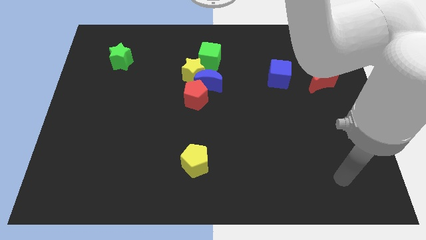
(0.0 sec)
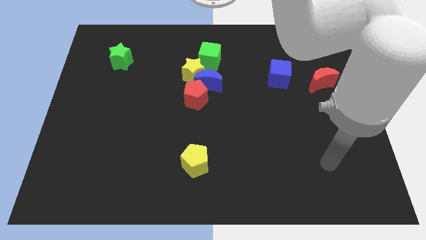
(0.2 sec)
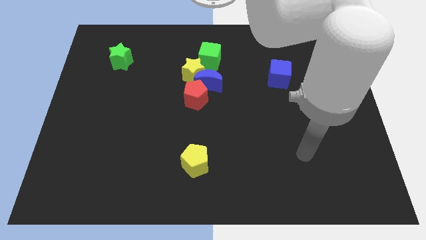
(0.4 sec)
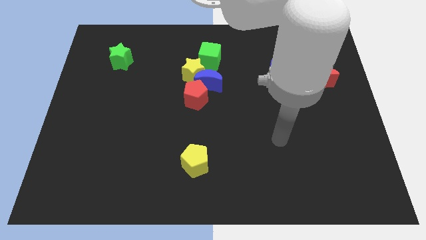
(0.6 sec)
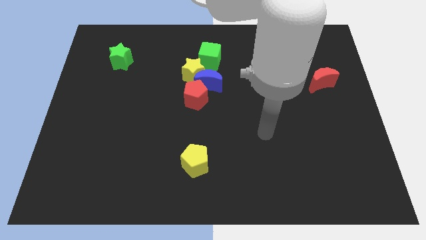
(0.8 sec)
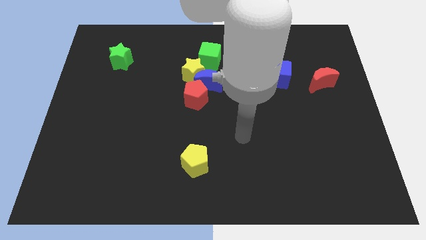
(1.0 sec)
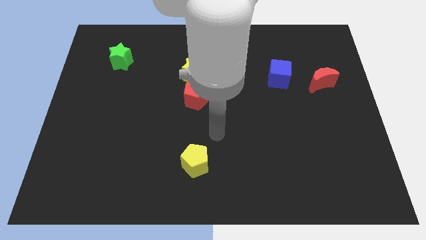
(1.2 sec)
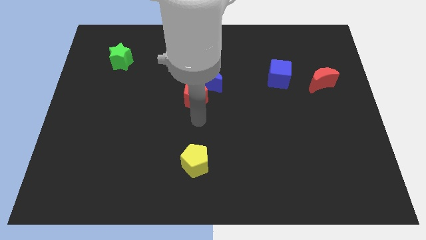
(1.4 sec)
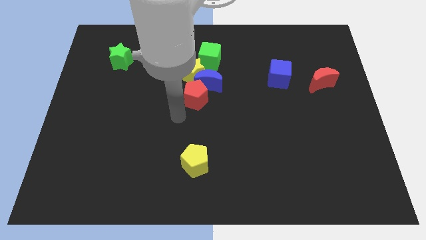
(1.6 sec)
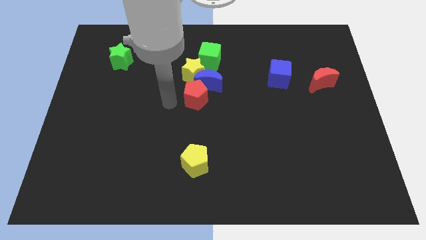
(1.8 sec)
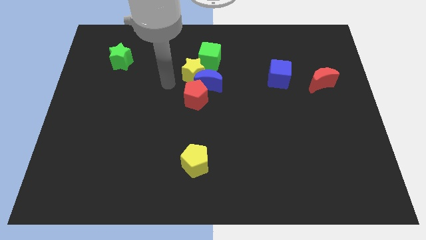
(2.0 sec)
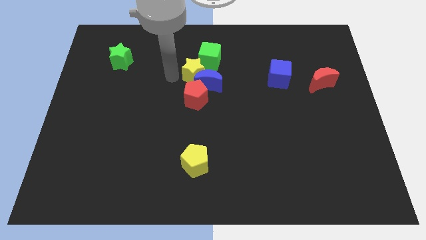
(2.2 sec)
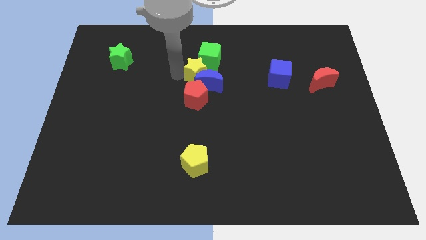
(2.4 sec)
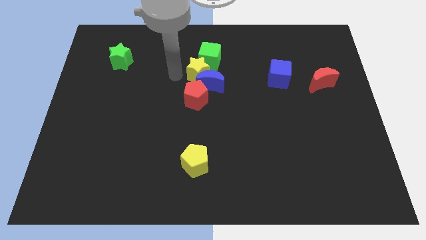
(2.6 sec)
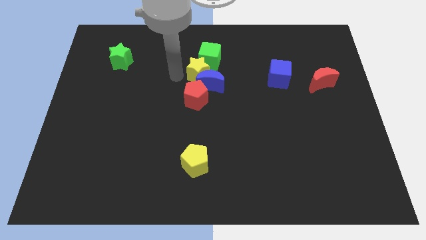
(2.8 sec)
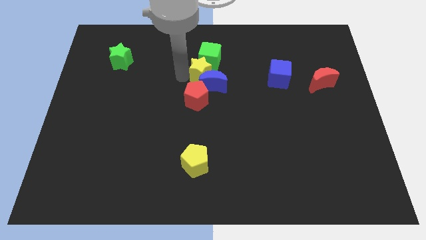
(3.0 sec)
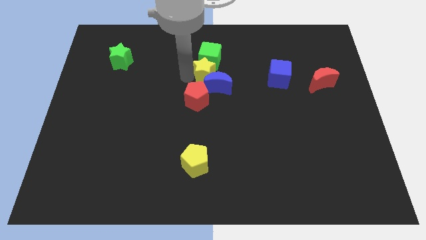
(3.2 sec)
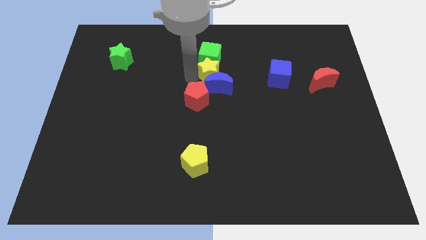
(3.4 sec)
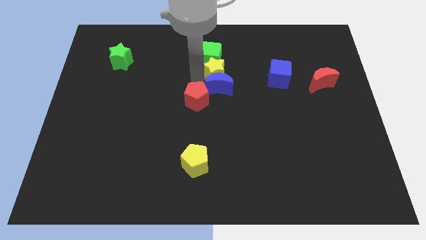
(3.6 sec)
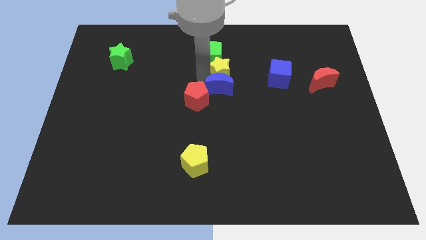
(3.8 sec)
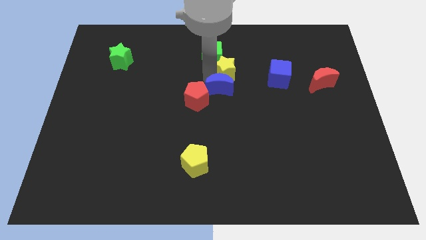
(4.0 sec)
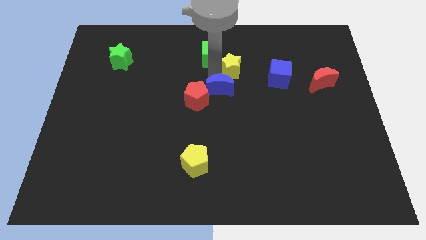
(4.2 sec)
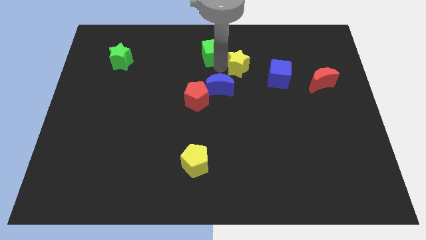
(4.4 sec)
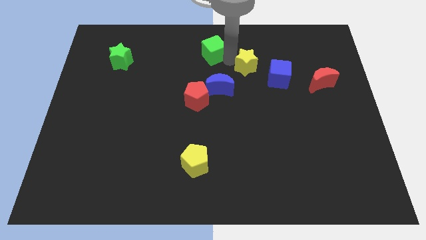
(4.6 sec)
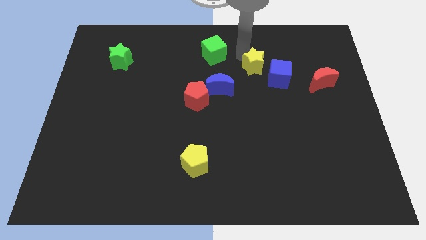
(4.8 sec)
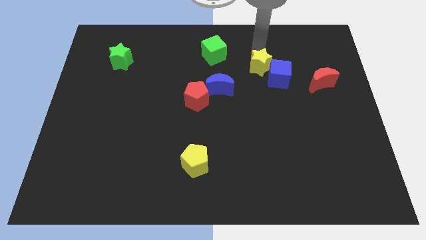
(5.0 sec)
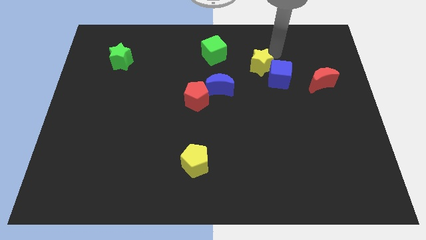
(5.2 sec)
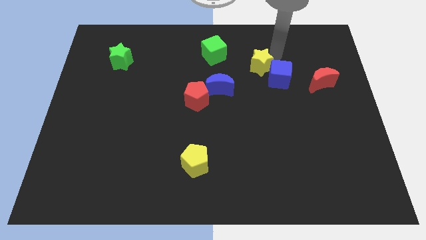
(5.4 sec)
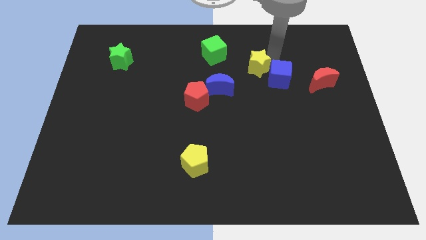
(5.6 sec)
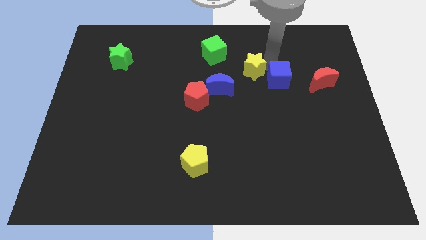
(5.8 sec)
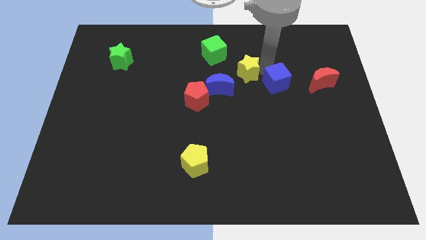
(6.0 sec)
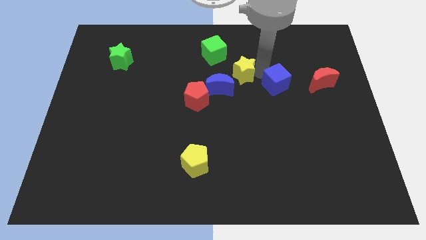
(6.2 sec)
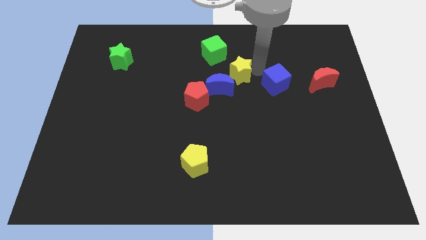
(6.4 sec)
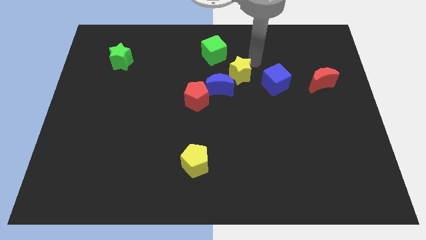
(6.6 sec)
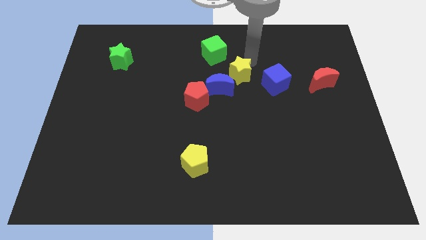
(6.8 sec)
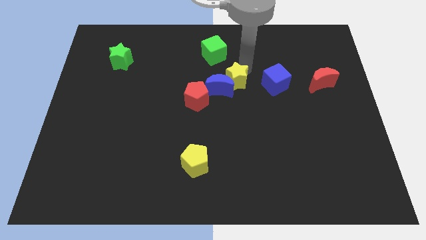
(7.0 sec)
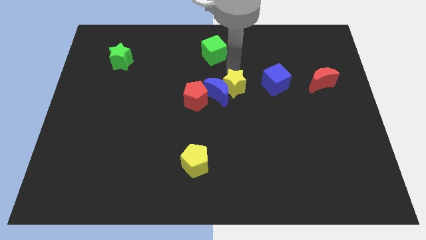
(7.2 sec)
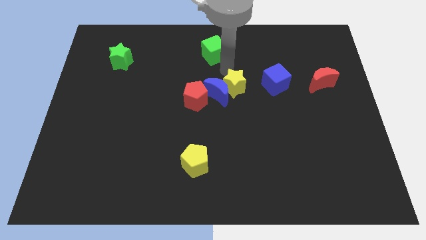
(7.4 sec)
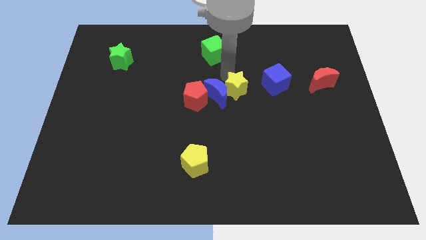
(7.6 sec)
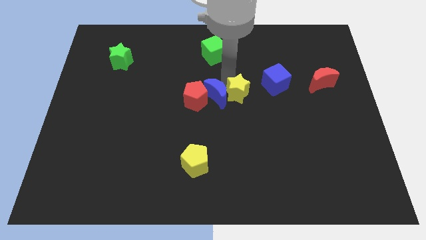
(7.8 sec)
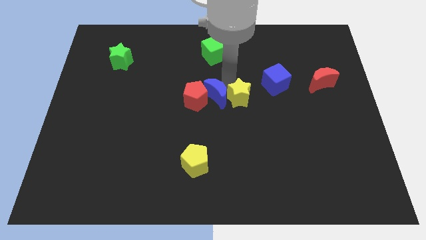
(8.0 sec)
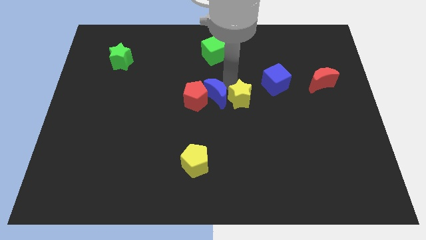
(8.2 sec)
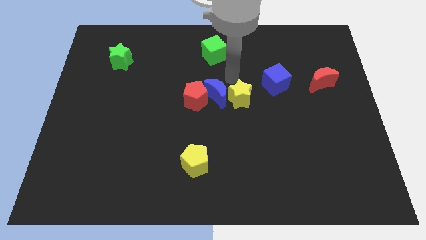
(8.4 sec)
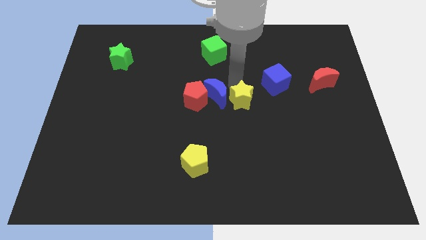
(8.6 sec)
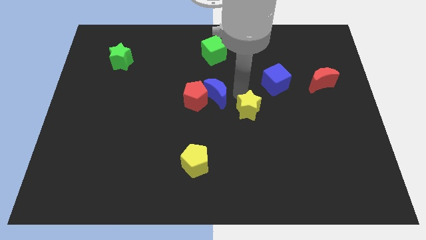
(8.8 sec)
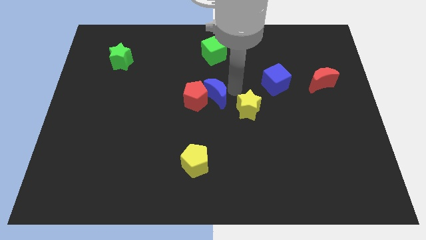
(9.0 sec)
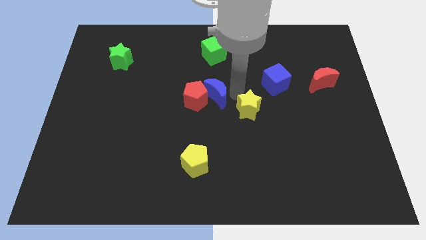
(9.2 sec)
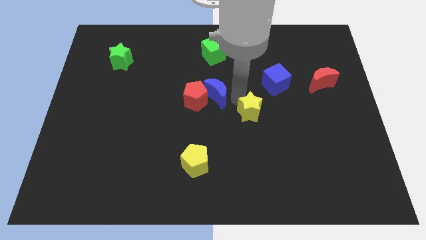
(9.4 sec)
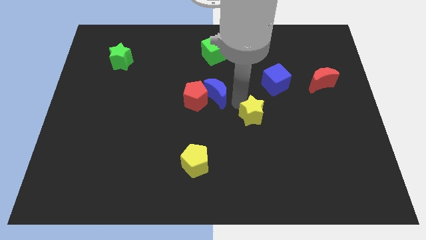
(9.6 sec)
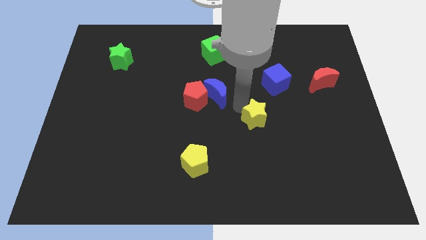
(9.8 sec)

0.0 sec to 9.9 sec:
move the yellow star diagonally downwards and right

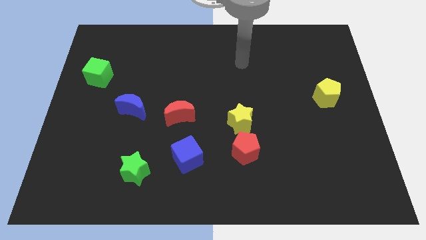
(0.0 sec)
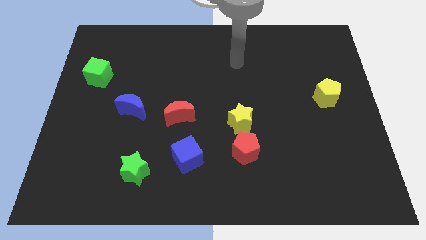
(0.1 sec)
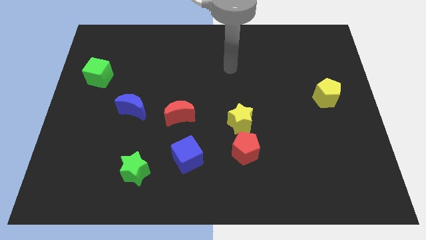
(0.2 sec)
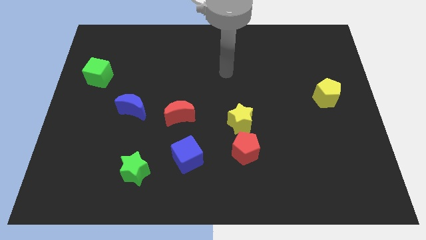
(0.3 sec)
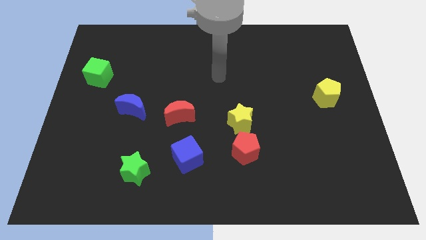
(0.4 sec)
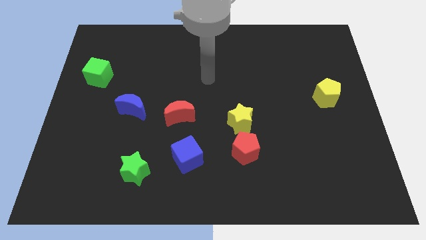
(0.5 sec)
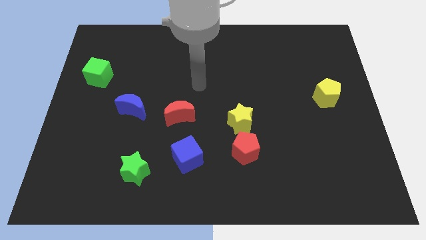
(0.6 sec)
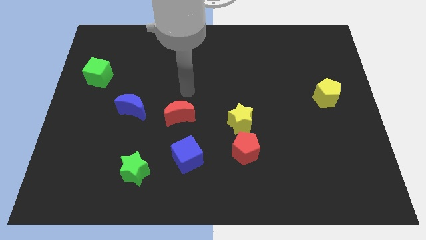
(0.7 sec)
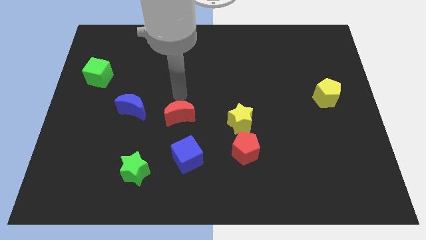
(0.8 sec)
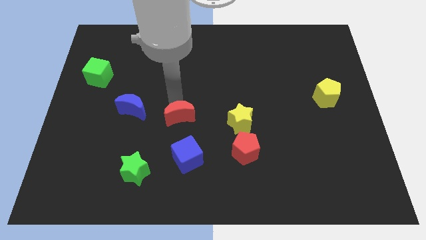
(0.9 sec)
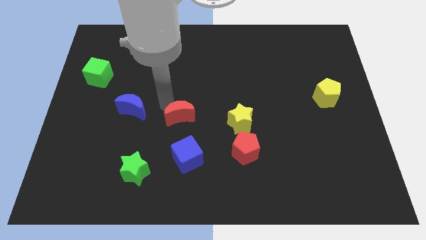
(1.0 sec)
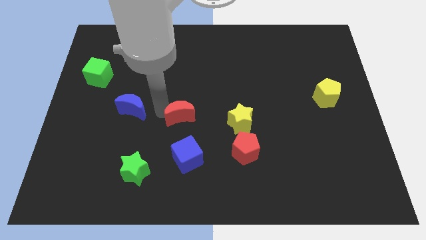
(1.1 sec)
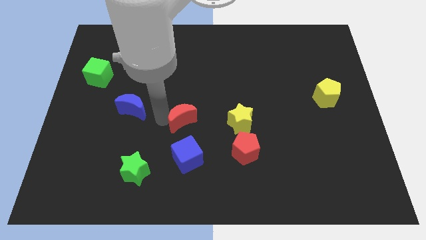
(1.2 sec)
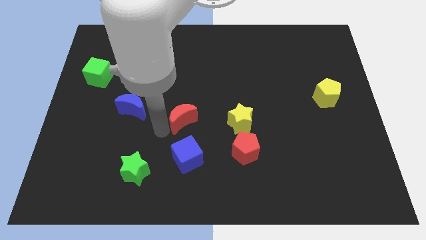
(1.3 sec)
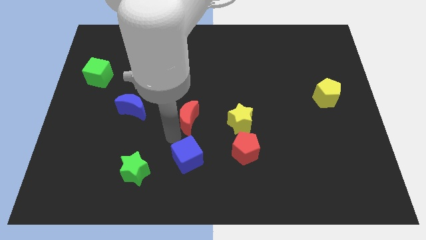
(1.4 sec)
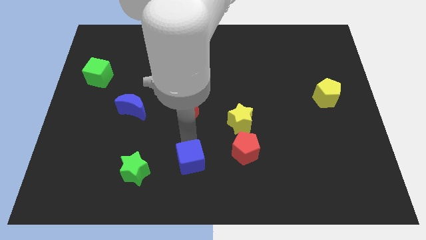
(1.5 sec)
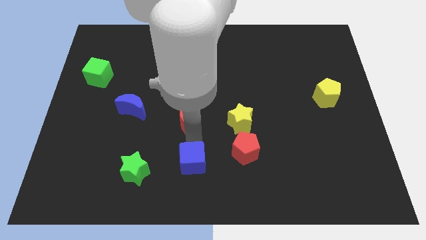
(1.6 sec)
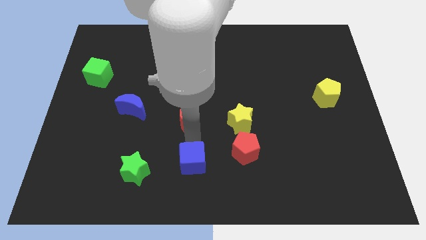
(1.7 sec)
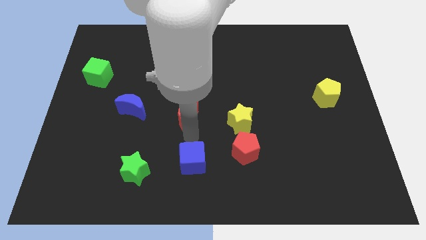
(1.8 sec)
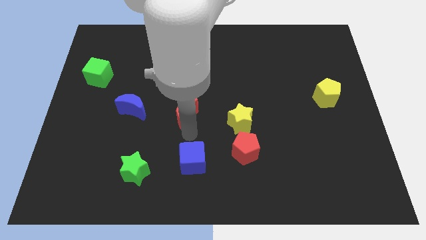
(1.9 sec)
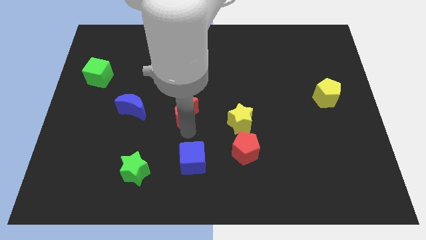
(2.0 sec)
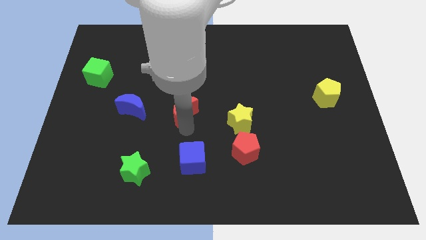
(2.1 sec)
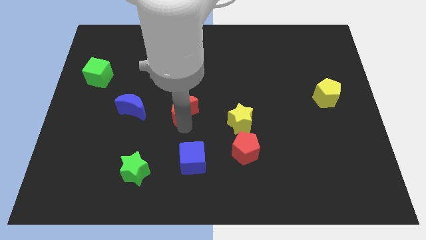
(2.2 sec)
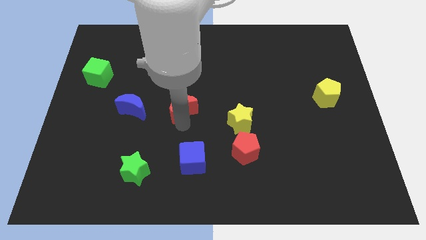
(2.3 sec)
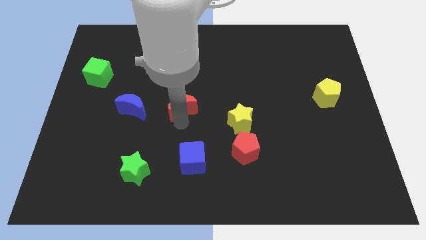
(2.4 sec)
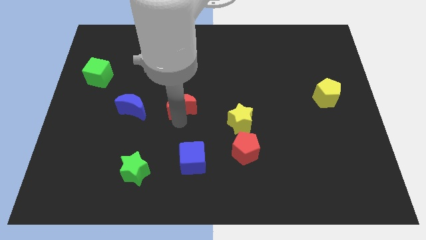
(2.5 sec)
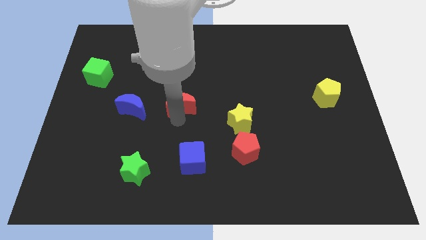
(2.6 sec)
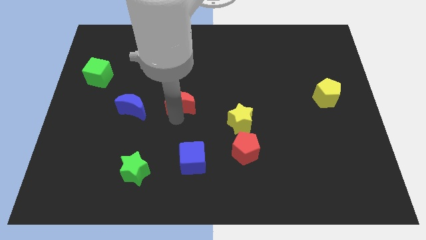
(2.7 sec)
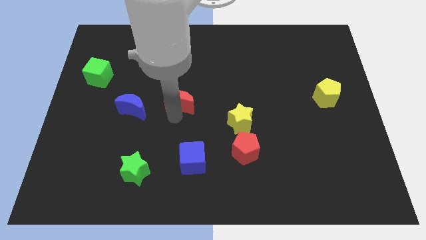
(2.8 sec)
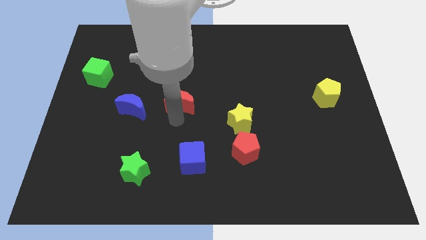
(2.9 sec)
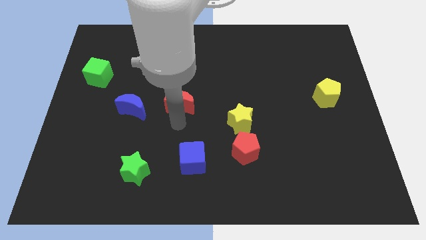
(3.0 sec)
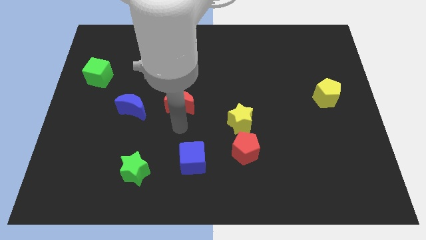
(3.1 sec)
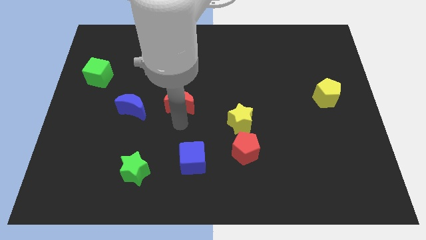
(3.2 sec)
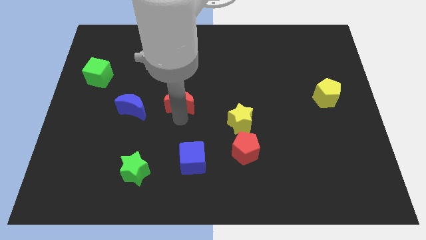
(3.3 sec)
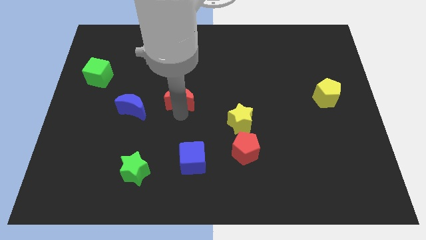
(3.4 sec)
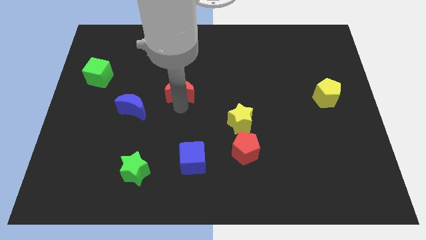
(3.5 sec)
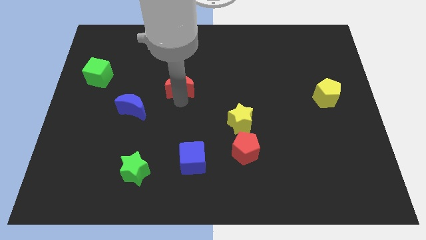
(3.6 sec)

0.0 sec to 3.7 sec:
slightly move the red moon upwards
